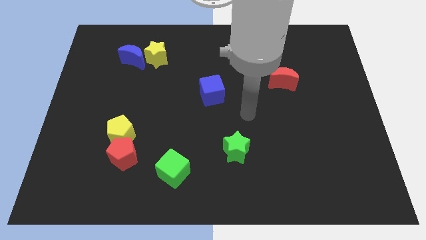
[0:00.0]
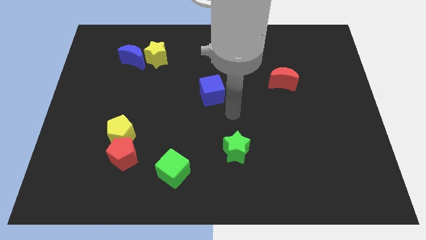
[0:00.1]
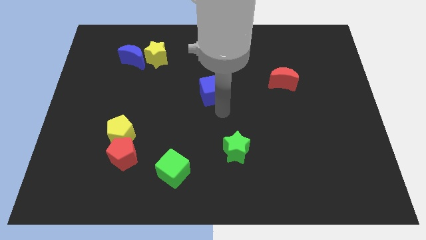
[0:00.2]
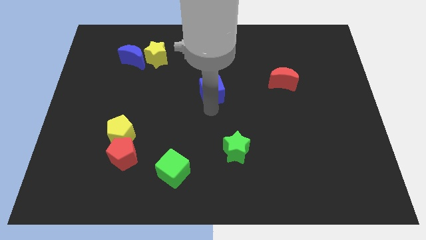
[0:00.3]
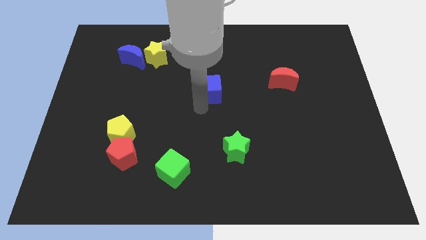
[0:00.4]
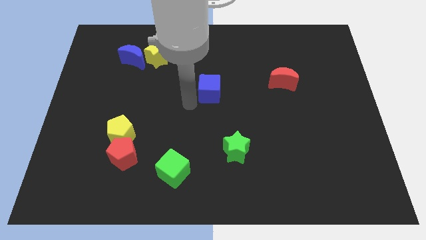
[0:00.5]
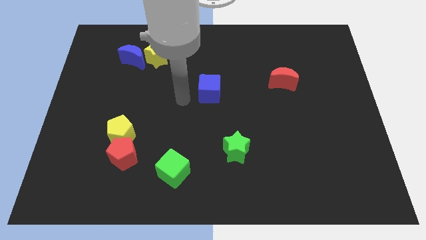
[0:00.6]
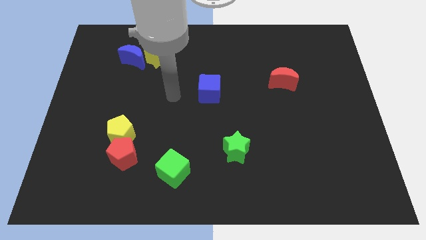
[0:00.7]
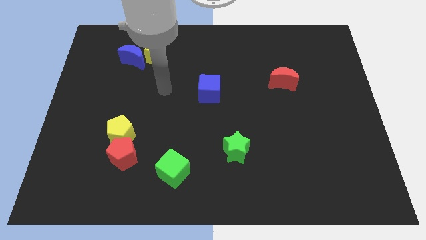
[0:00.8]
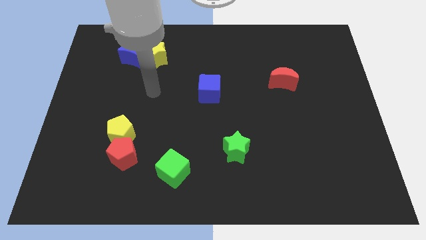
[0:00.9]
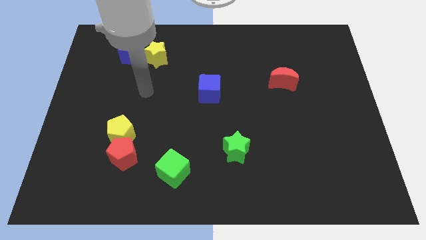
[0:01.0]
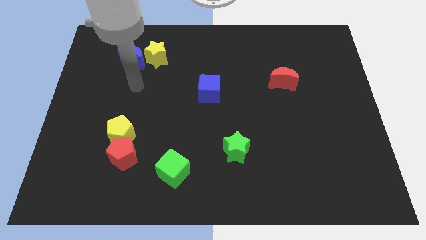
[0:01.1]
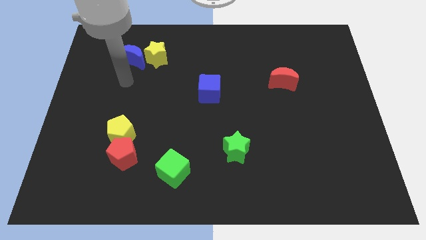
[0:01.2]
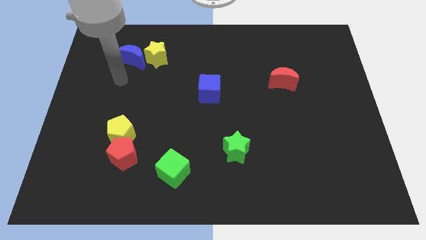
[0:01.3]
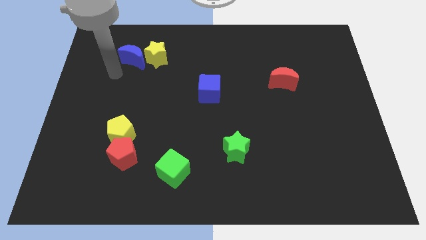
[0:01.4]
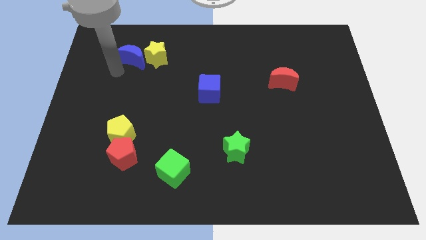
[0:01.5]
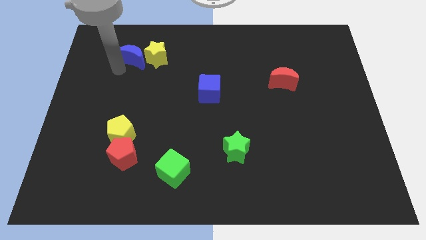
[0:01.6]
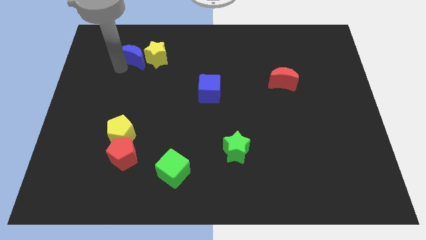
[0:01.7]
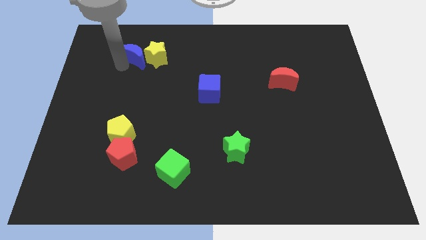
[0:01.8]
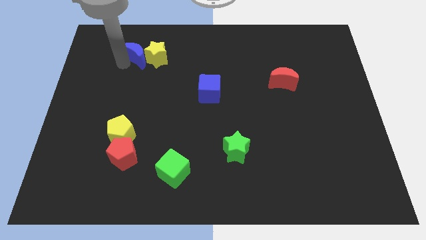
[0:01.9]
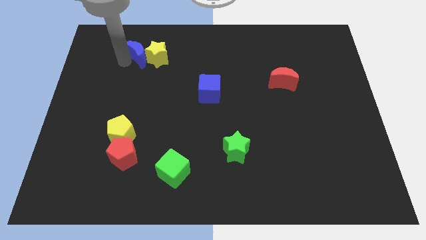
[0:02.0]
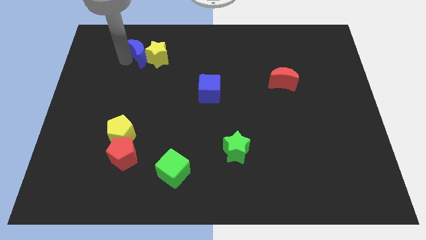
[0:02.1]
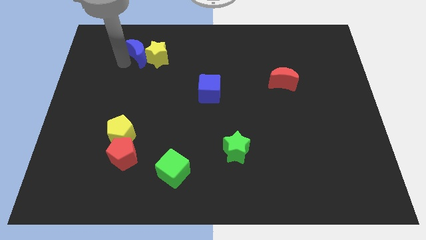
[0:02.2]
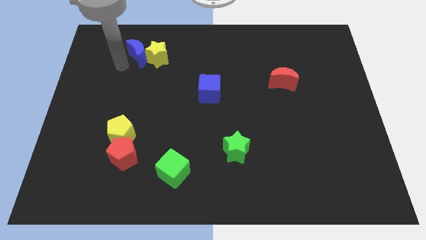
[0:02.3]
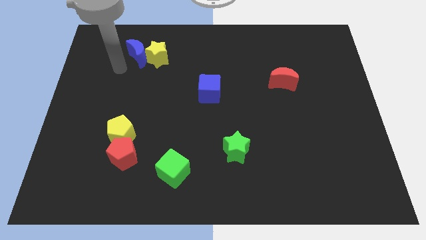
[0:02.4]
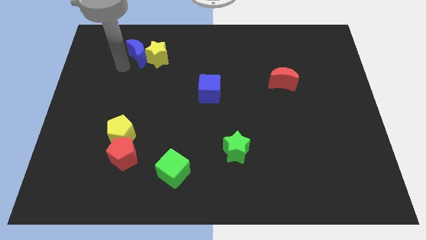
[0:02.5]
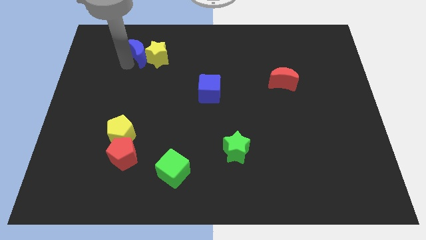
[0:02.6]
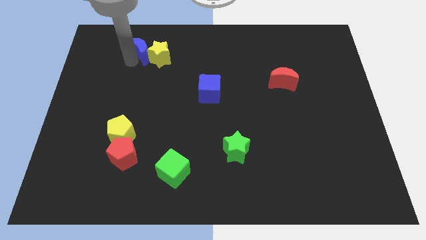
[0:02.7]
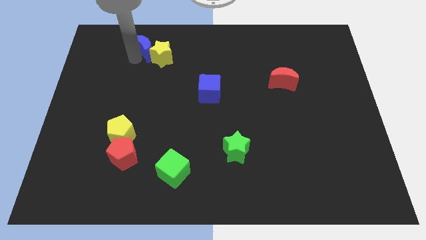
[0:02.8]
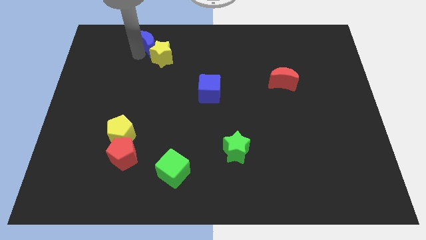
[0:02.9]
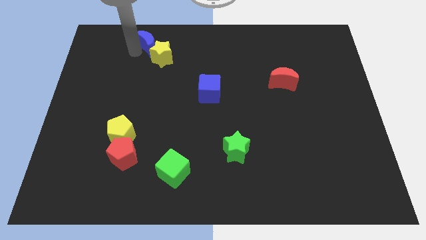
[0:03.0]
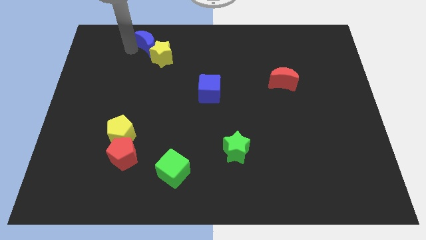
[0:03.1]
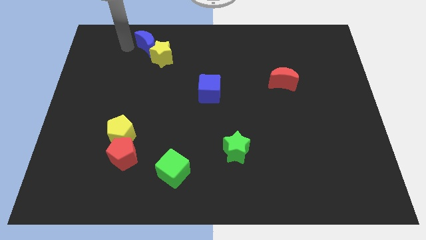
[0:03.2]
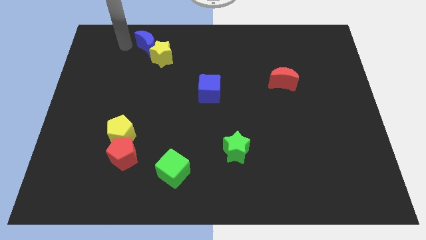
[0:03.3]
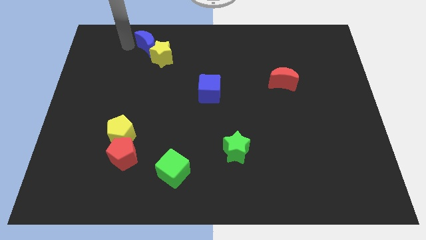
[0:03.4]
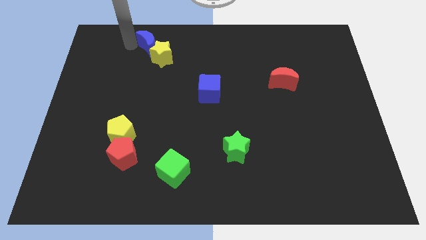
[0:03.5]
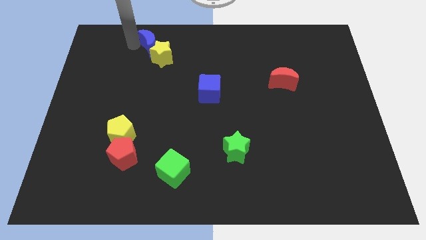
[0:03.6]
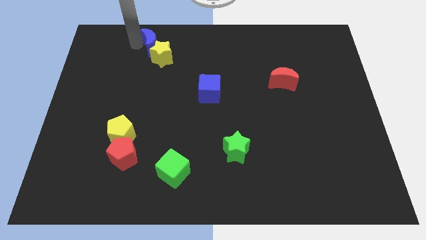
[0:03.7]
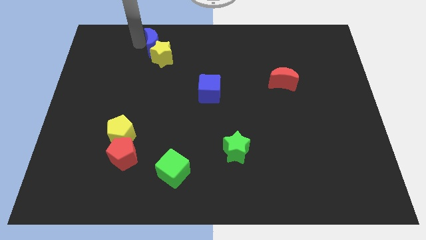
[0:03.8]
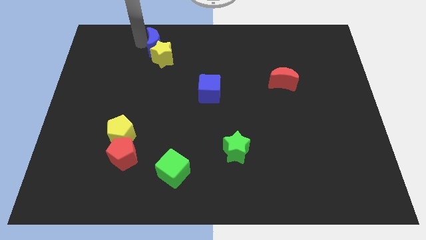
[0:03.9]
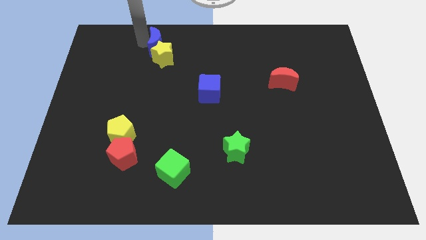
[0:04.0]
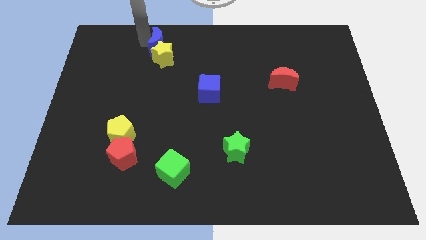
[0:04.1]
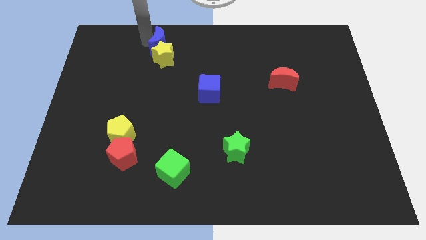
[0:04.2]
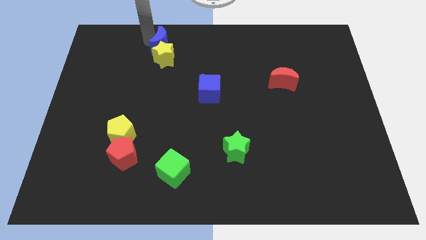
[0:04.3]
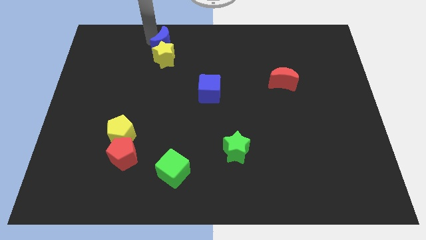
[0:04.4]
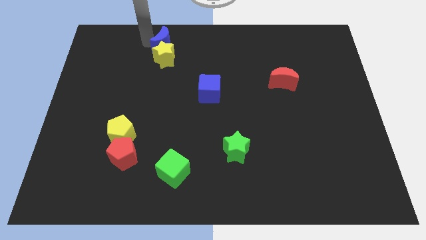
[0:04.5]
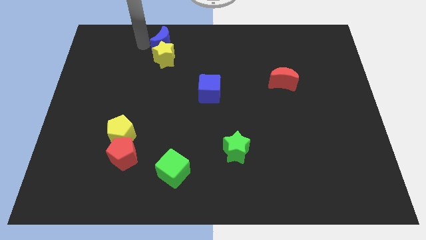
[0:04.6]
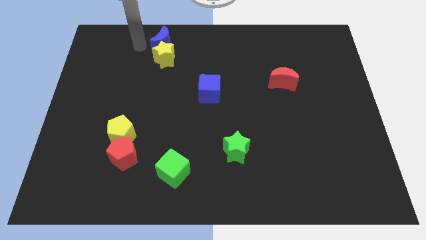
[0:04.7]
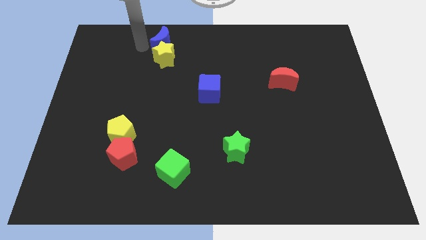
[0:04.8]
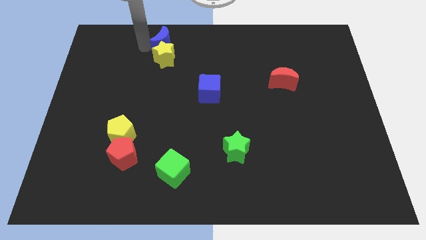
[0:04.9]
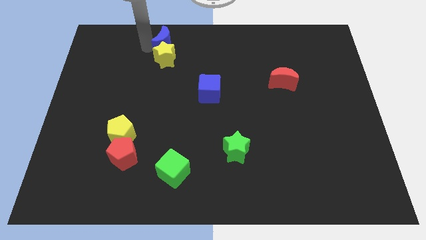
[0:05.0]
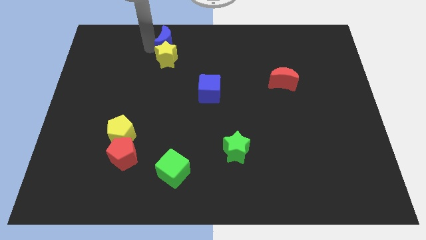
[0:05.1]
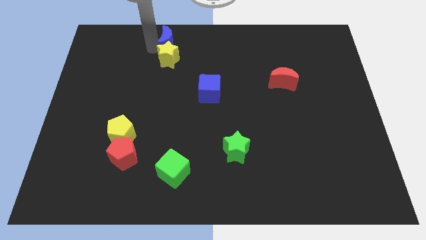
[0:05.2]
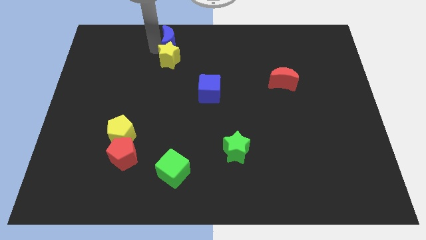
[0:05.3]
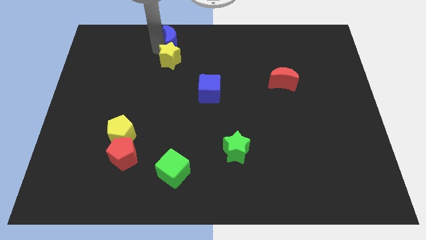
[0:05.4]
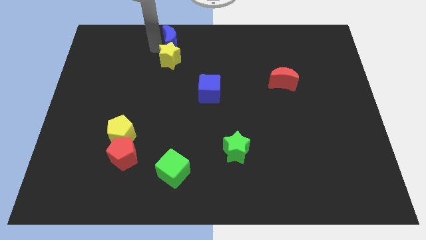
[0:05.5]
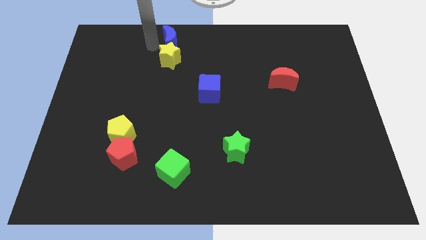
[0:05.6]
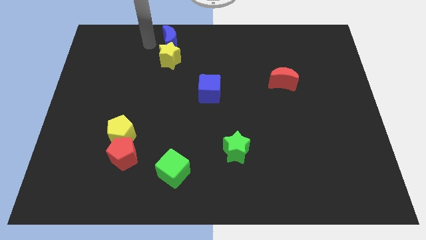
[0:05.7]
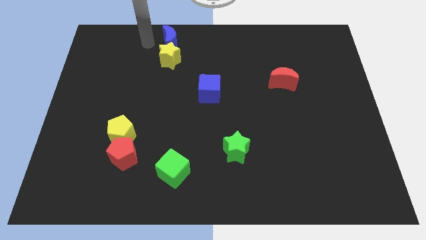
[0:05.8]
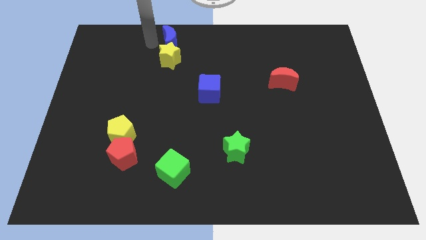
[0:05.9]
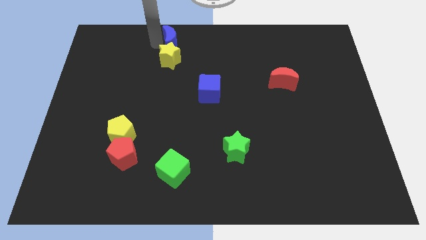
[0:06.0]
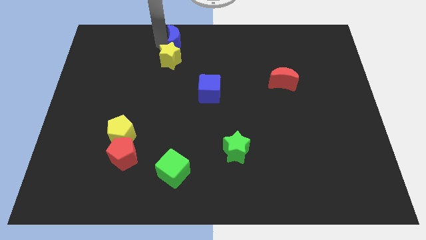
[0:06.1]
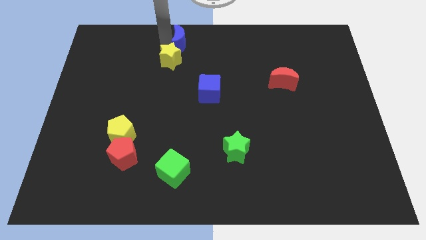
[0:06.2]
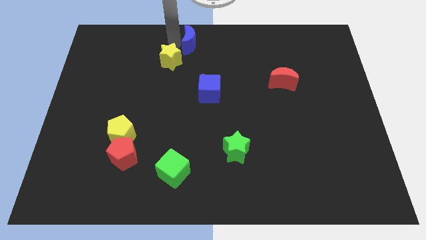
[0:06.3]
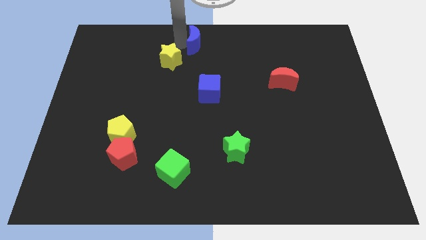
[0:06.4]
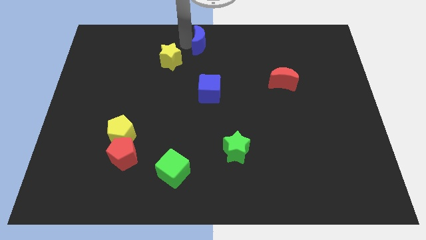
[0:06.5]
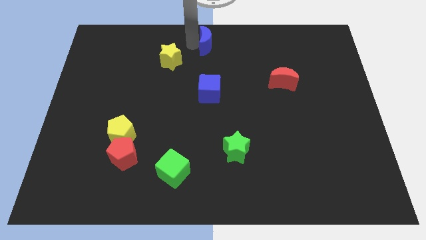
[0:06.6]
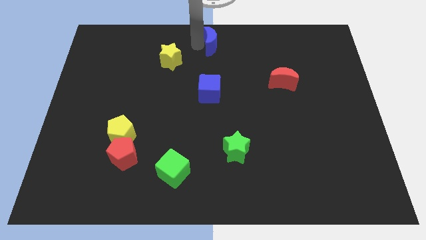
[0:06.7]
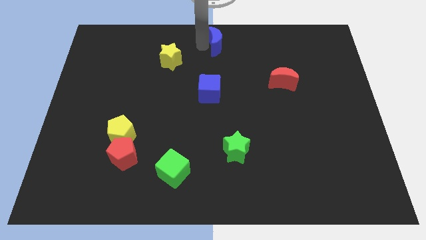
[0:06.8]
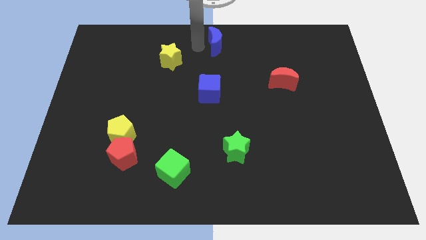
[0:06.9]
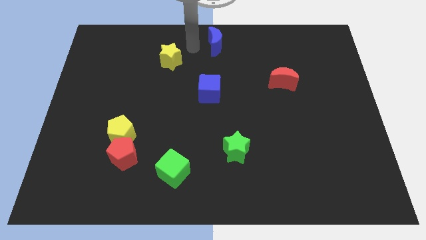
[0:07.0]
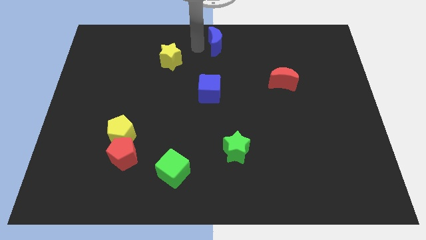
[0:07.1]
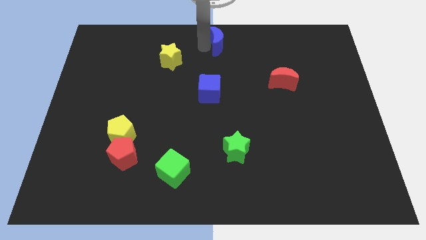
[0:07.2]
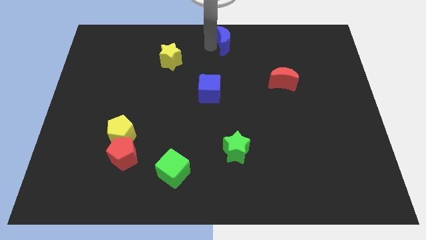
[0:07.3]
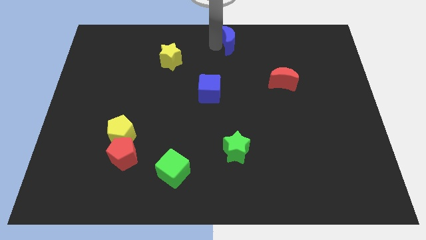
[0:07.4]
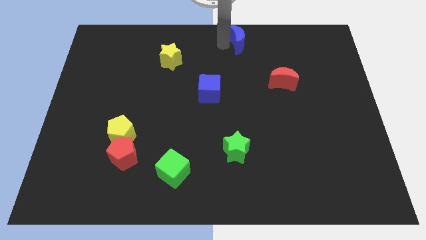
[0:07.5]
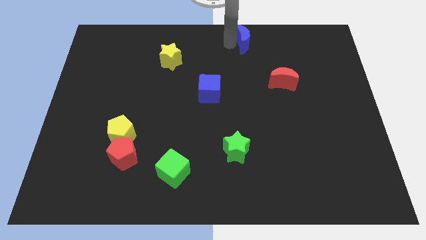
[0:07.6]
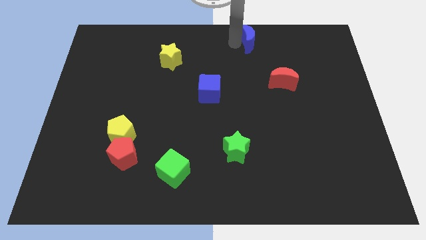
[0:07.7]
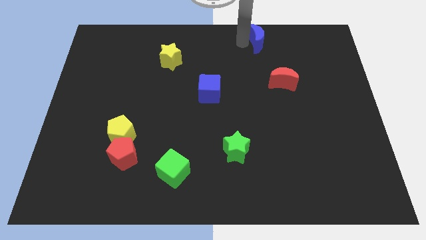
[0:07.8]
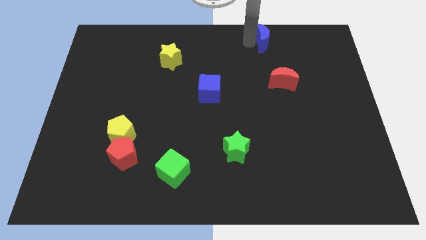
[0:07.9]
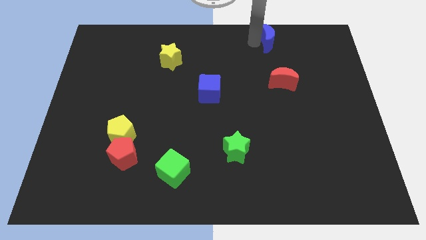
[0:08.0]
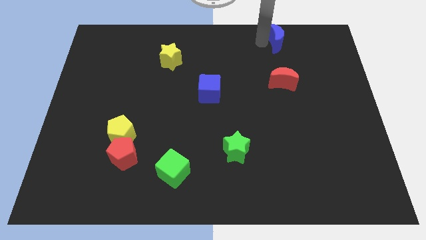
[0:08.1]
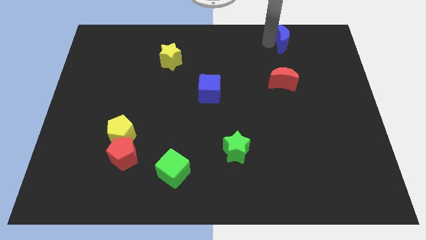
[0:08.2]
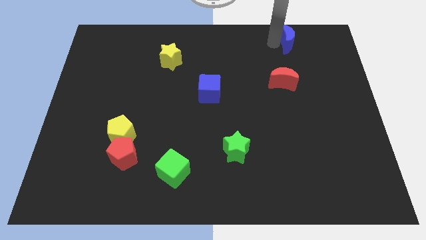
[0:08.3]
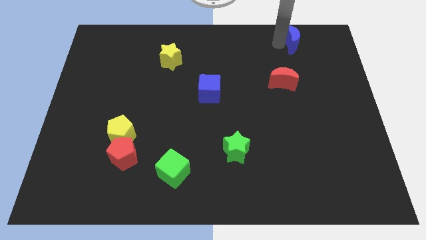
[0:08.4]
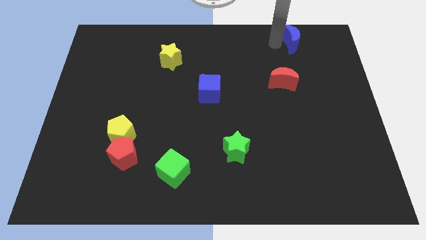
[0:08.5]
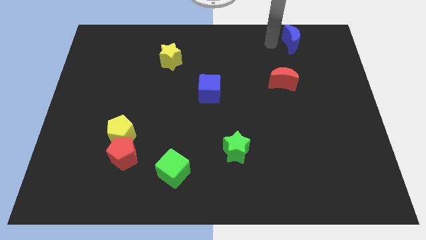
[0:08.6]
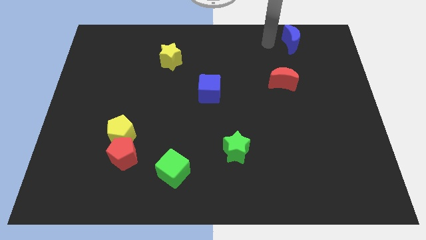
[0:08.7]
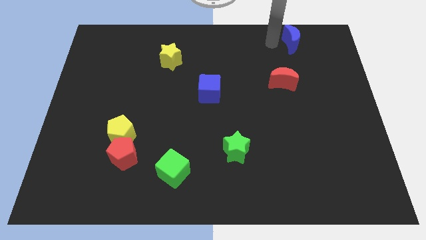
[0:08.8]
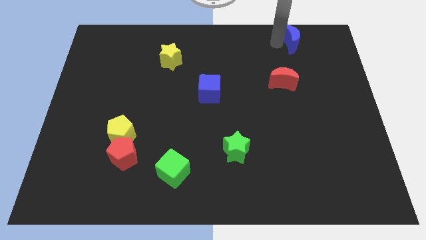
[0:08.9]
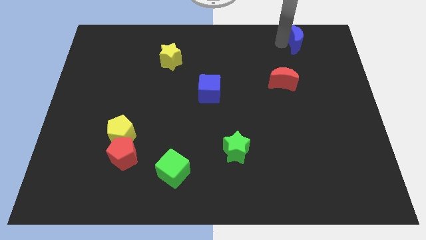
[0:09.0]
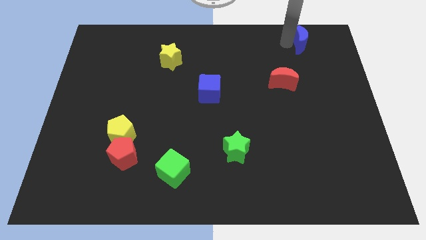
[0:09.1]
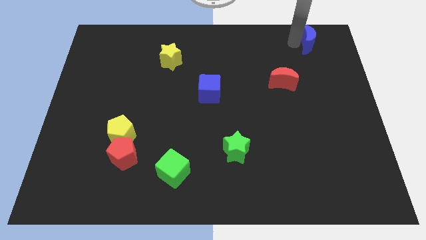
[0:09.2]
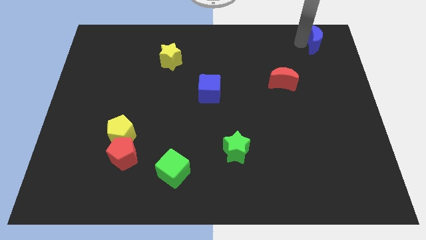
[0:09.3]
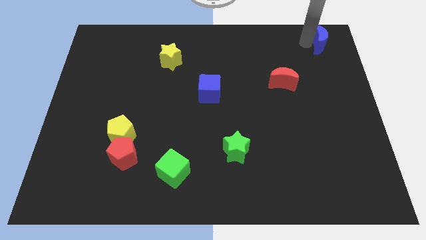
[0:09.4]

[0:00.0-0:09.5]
move the blue moon to the top right corner
